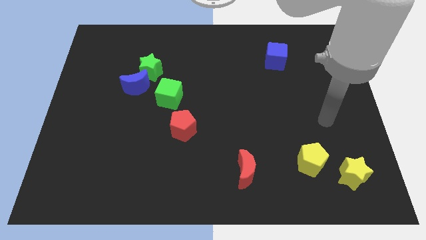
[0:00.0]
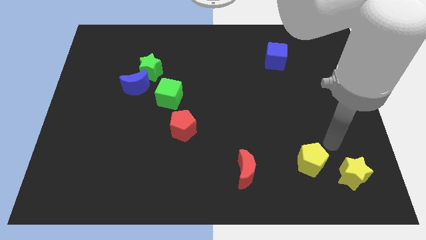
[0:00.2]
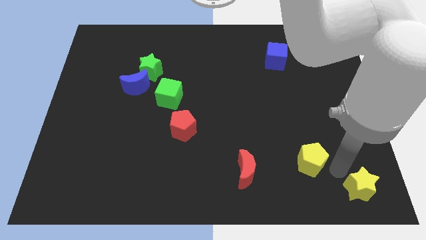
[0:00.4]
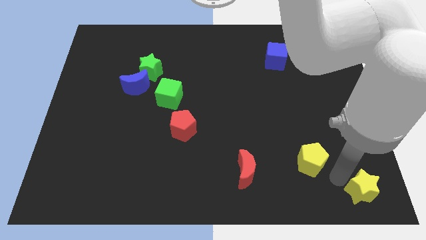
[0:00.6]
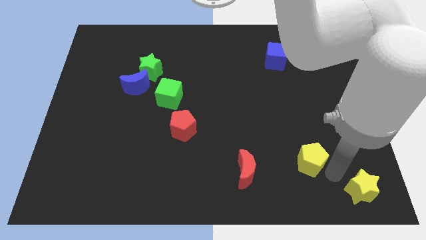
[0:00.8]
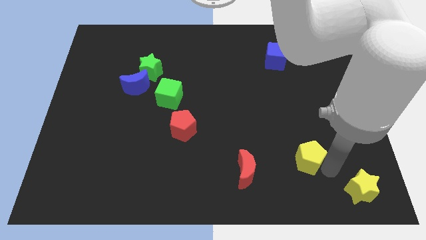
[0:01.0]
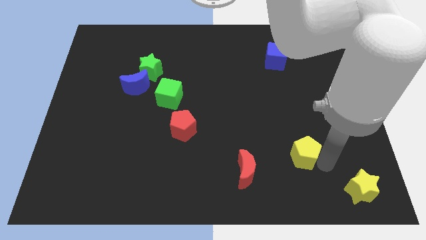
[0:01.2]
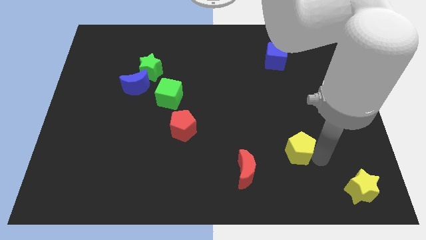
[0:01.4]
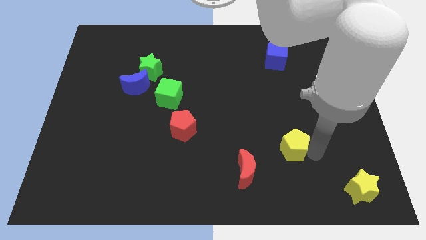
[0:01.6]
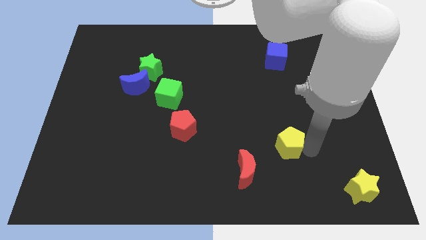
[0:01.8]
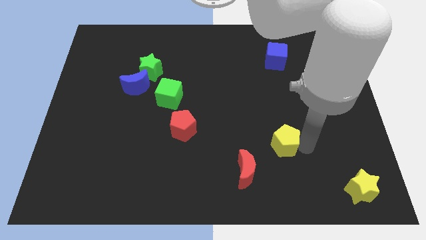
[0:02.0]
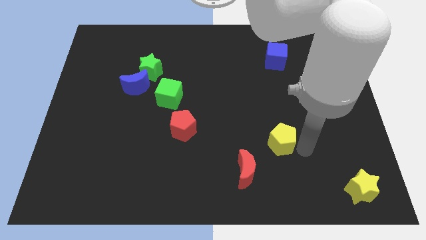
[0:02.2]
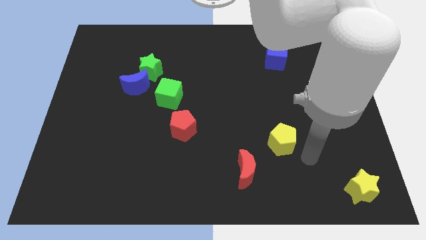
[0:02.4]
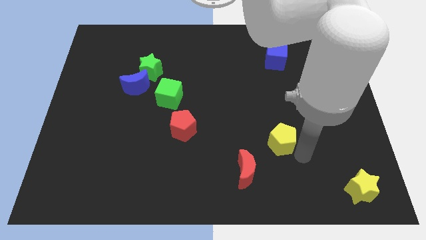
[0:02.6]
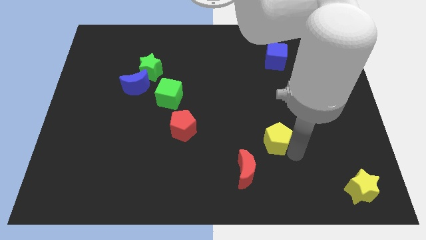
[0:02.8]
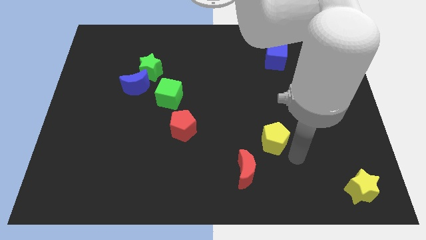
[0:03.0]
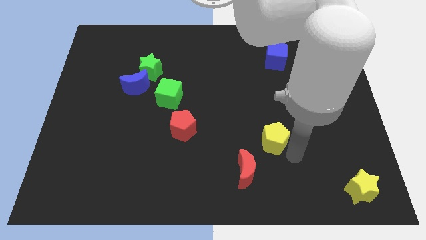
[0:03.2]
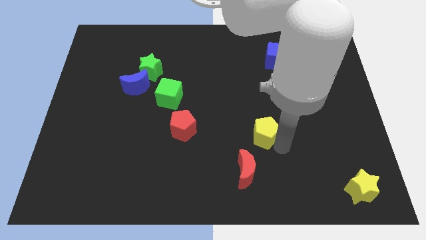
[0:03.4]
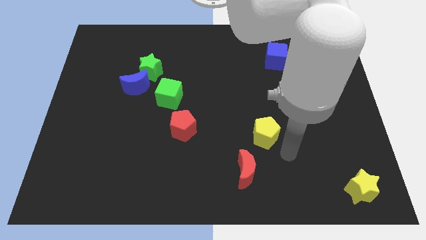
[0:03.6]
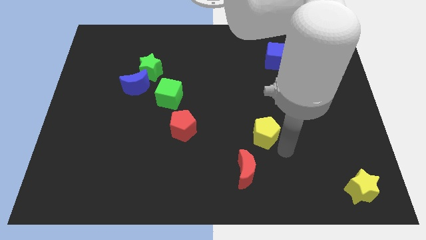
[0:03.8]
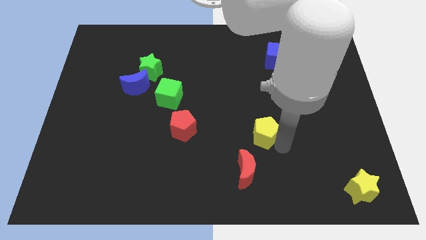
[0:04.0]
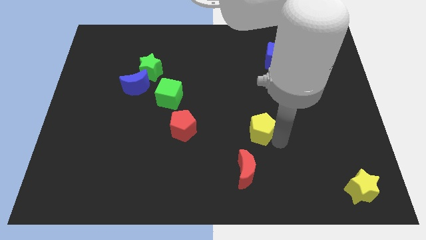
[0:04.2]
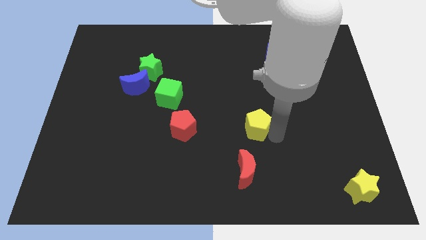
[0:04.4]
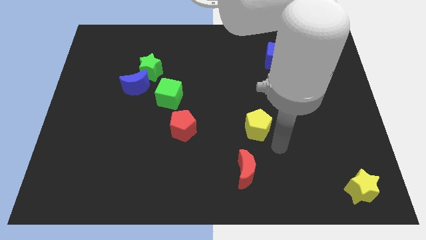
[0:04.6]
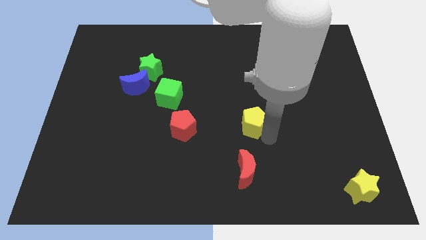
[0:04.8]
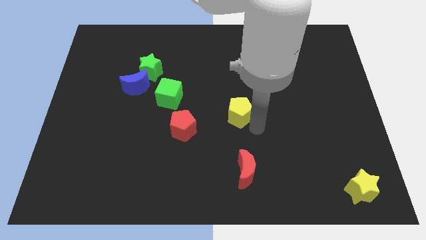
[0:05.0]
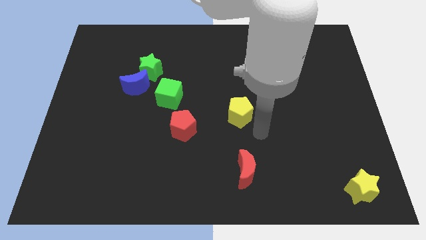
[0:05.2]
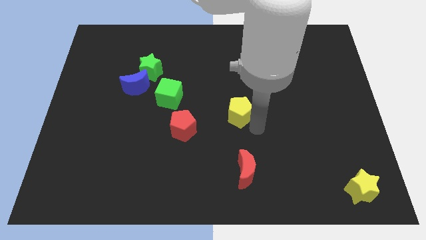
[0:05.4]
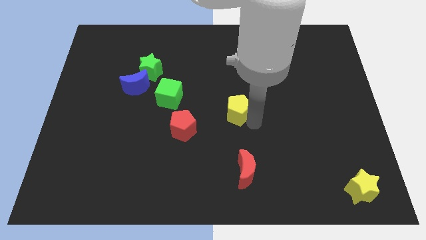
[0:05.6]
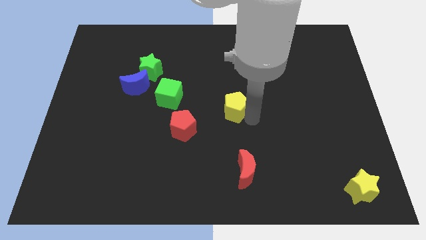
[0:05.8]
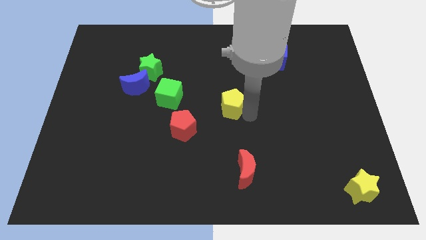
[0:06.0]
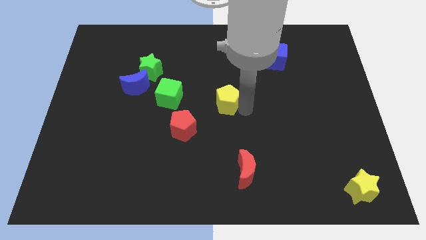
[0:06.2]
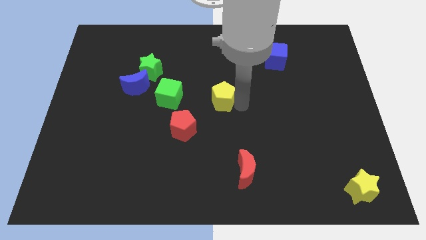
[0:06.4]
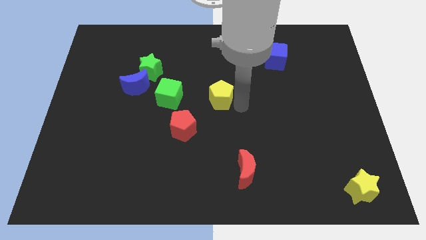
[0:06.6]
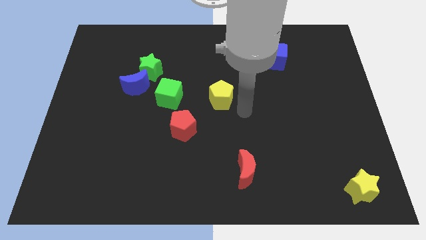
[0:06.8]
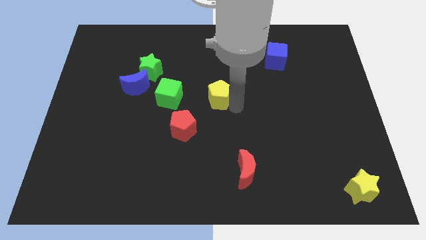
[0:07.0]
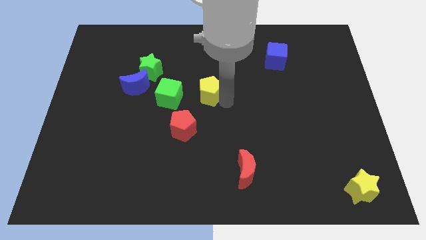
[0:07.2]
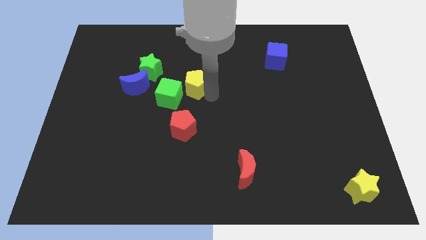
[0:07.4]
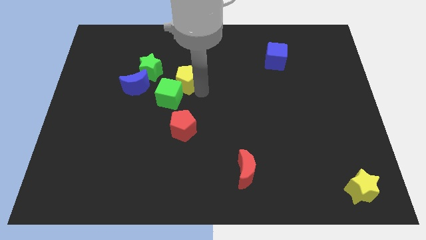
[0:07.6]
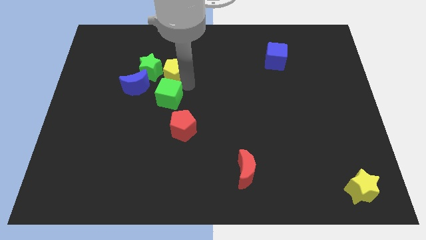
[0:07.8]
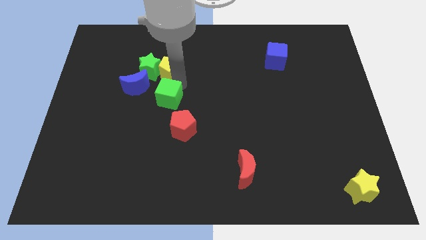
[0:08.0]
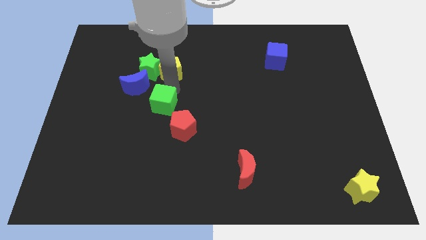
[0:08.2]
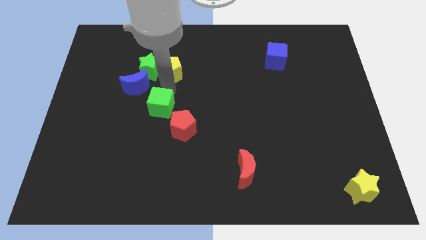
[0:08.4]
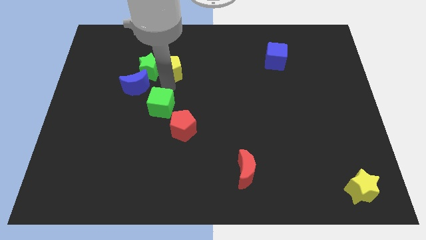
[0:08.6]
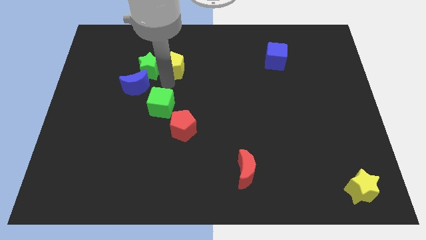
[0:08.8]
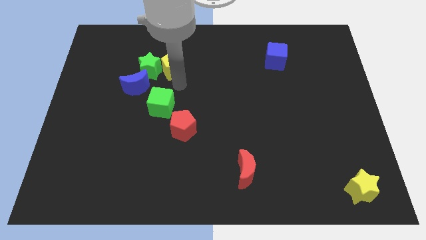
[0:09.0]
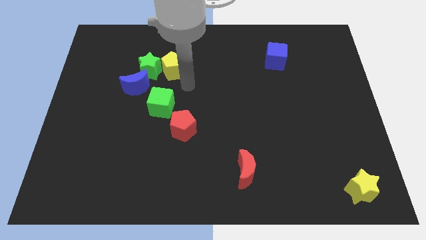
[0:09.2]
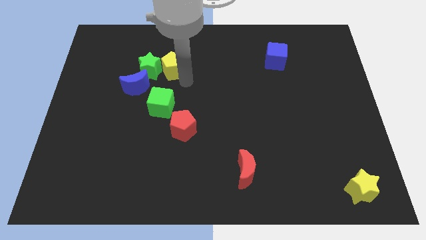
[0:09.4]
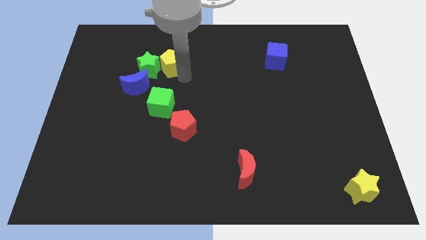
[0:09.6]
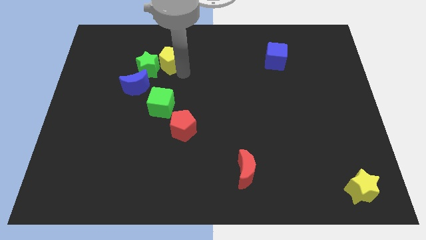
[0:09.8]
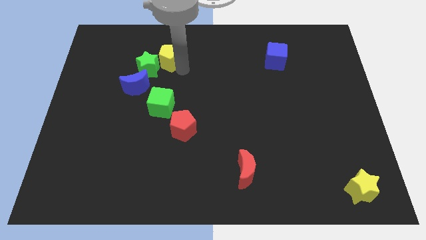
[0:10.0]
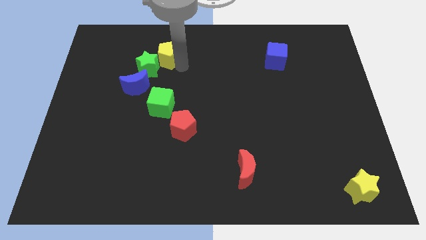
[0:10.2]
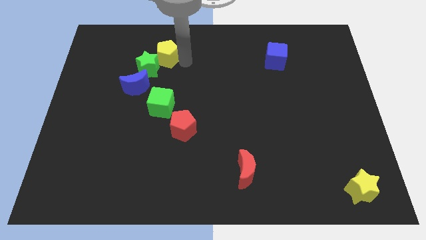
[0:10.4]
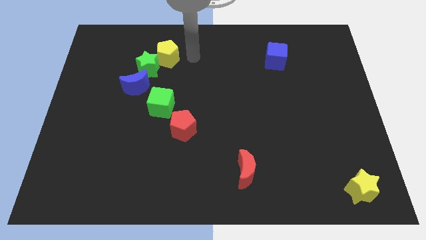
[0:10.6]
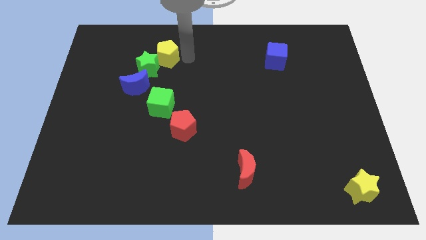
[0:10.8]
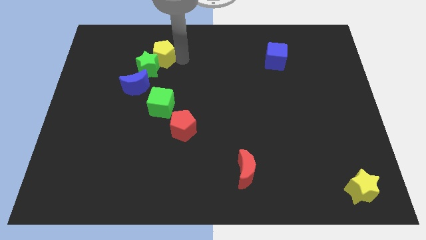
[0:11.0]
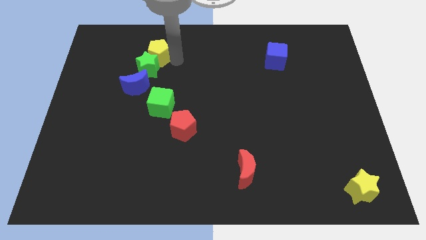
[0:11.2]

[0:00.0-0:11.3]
push the yellow pentagon to the top of the blue moon

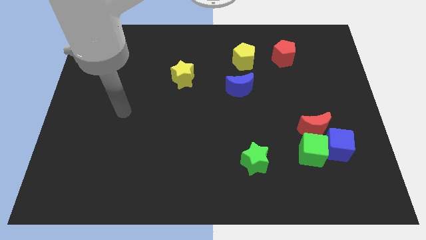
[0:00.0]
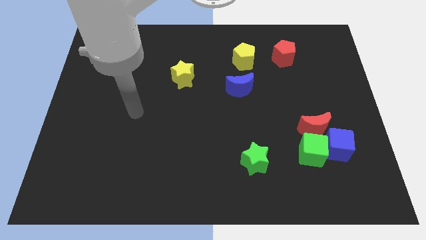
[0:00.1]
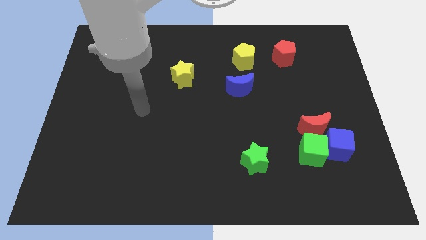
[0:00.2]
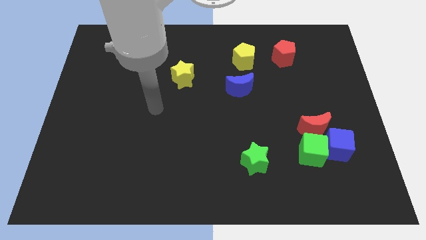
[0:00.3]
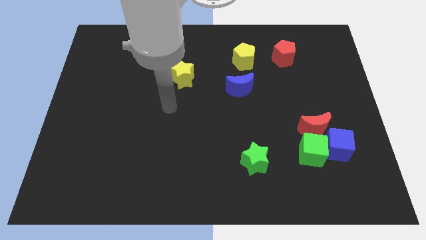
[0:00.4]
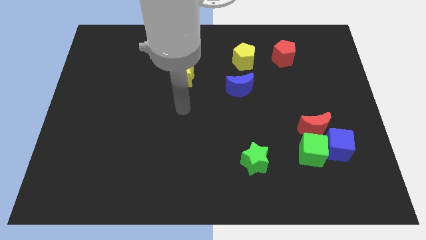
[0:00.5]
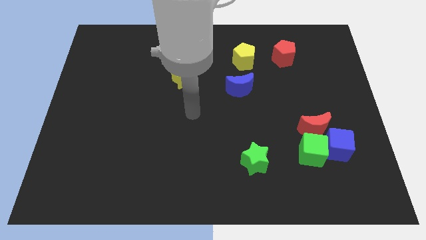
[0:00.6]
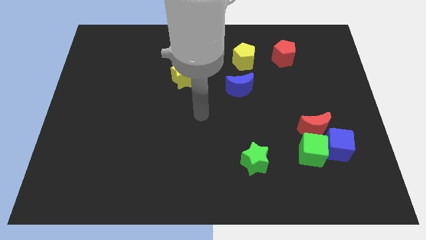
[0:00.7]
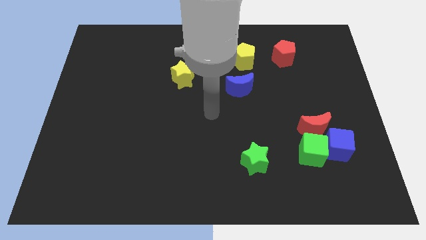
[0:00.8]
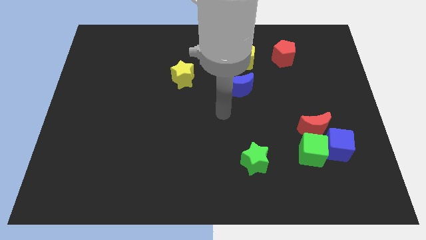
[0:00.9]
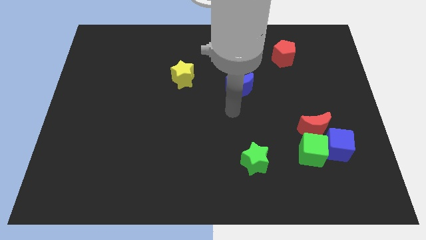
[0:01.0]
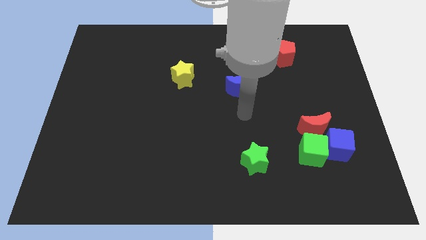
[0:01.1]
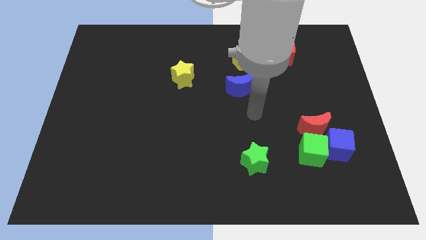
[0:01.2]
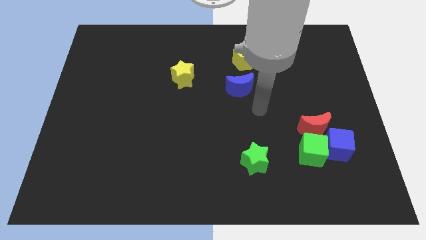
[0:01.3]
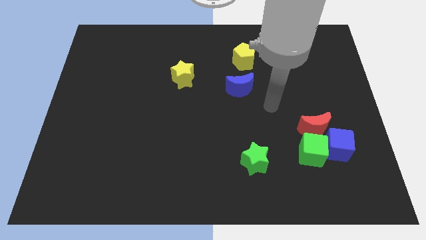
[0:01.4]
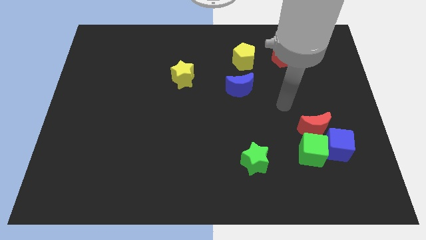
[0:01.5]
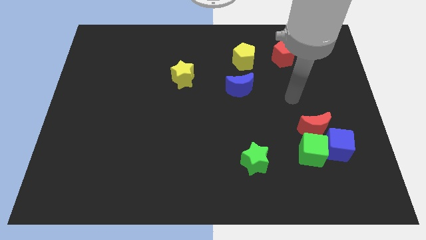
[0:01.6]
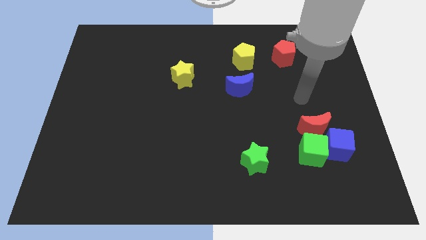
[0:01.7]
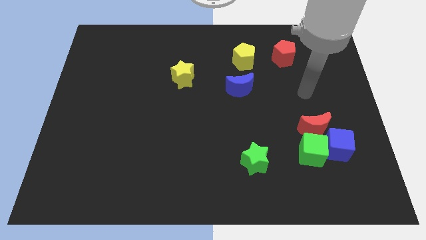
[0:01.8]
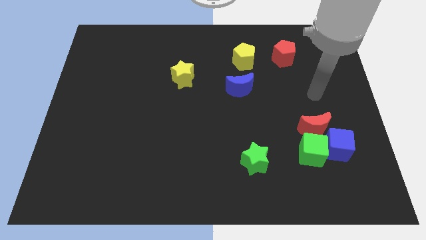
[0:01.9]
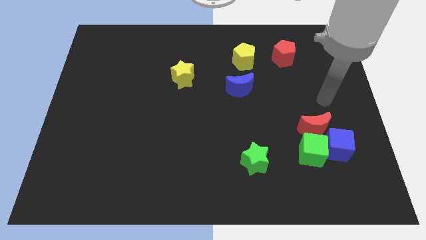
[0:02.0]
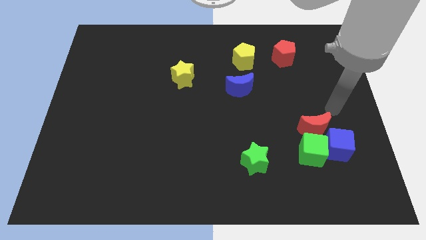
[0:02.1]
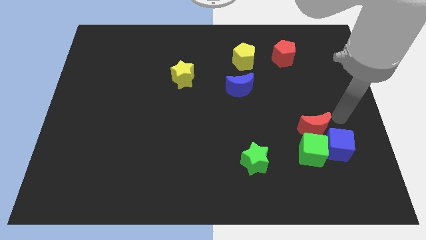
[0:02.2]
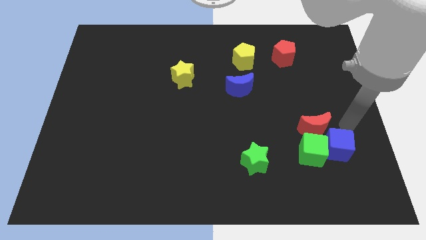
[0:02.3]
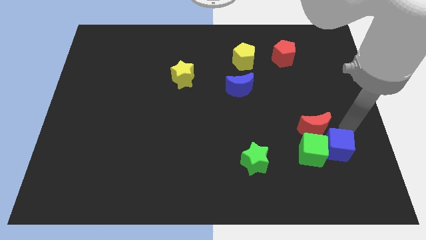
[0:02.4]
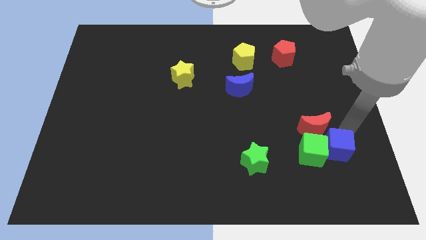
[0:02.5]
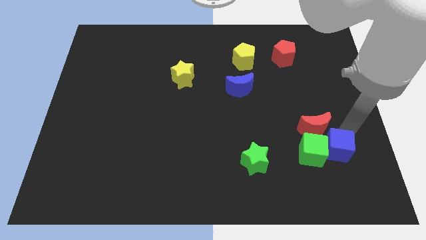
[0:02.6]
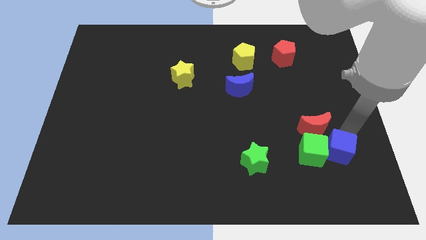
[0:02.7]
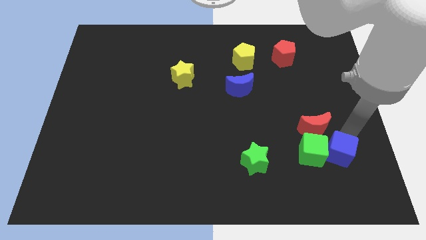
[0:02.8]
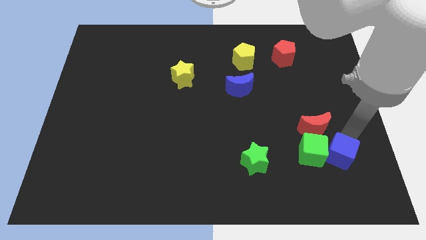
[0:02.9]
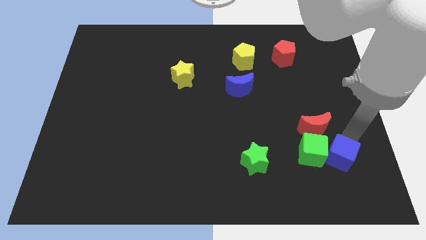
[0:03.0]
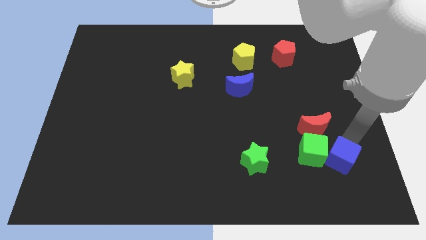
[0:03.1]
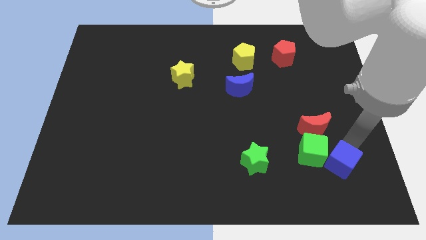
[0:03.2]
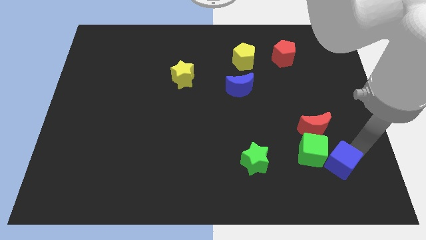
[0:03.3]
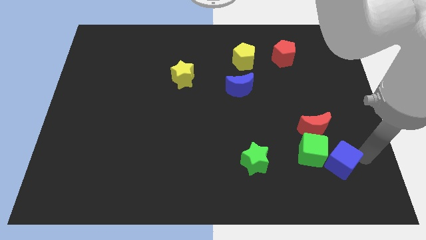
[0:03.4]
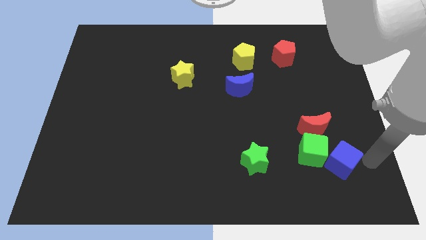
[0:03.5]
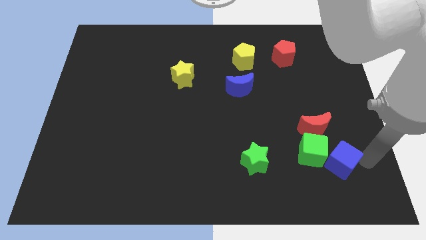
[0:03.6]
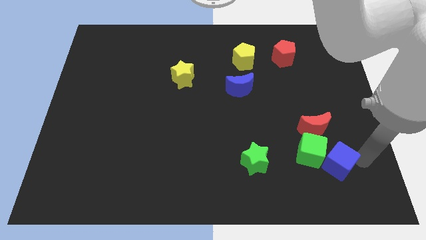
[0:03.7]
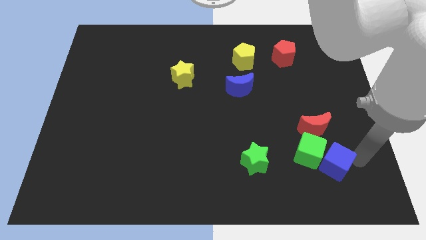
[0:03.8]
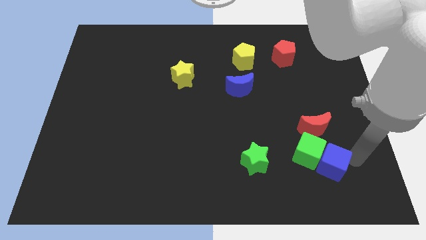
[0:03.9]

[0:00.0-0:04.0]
push the blue cube just right of the green star
